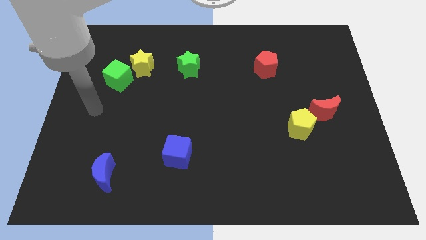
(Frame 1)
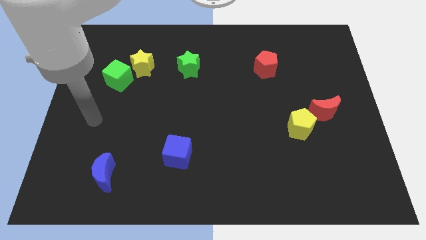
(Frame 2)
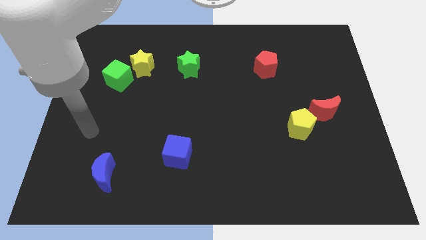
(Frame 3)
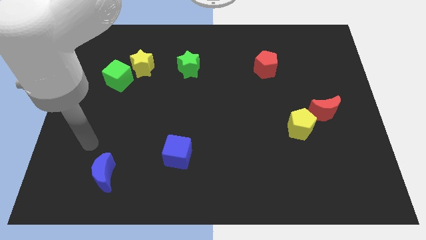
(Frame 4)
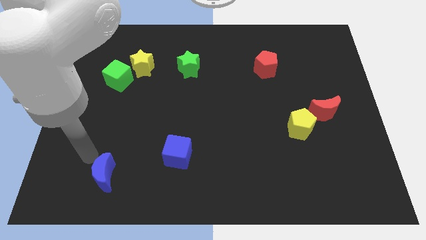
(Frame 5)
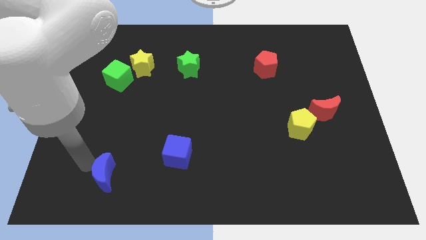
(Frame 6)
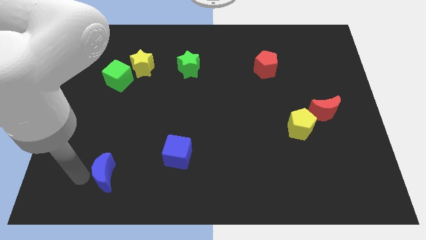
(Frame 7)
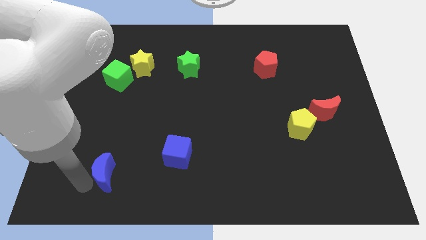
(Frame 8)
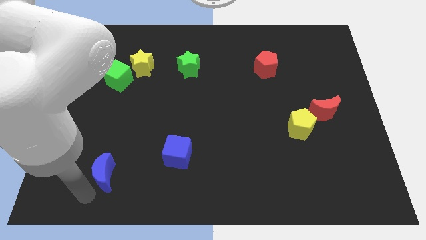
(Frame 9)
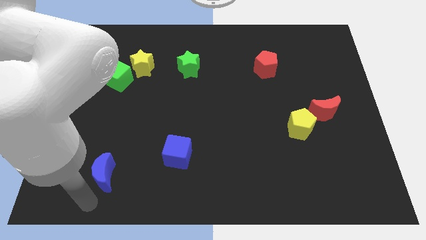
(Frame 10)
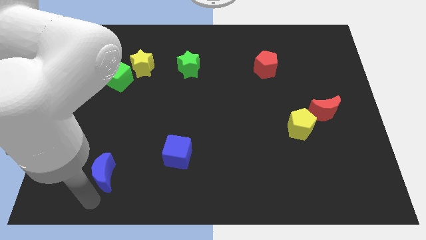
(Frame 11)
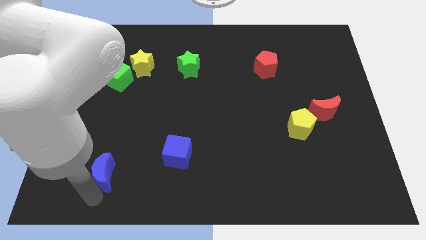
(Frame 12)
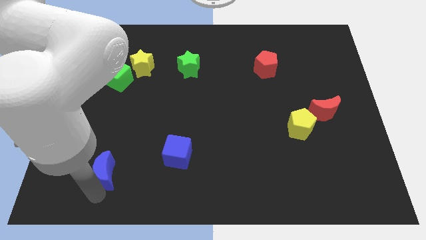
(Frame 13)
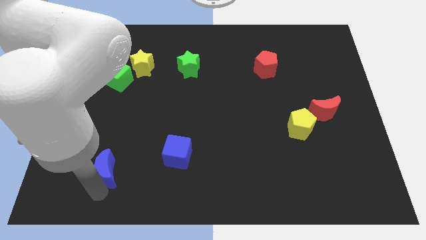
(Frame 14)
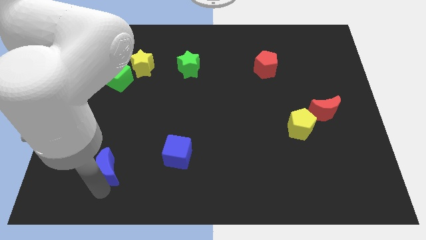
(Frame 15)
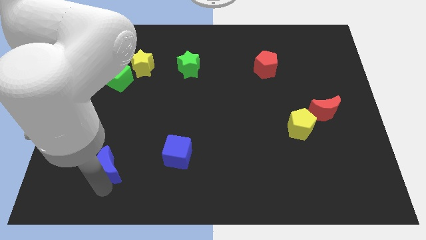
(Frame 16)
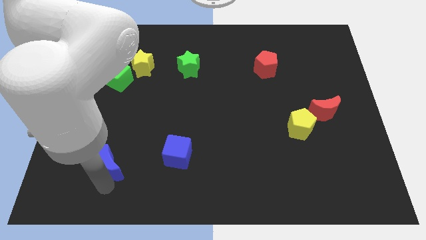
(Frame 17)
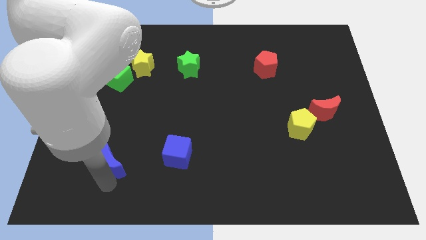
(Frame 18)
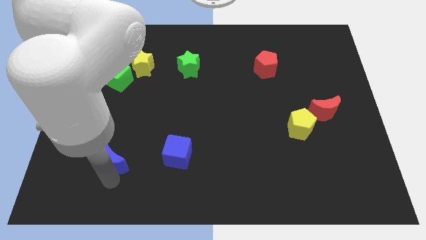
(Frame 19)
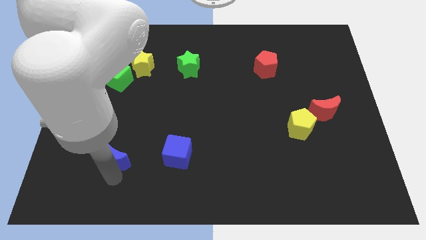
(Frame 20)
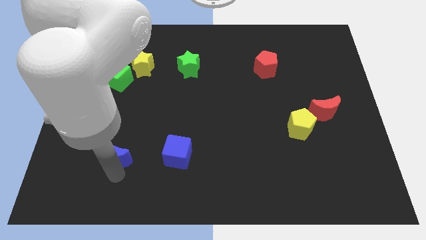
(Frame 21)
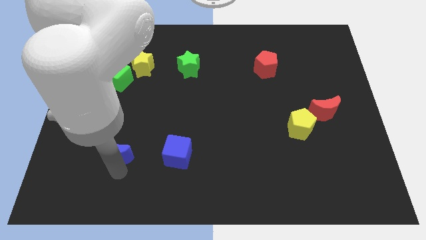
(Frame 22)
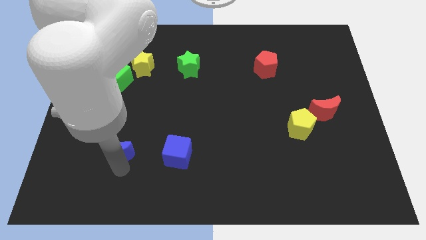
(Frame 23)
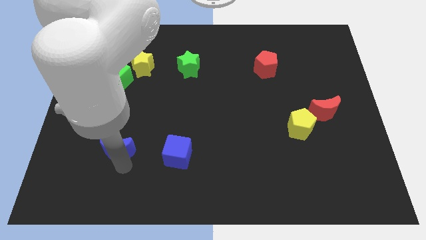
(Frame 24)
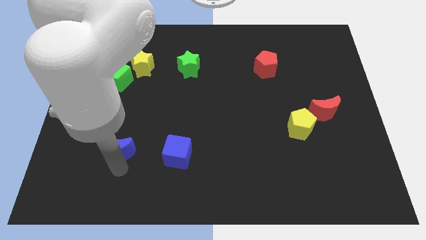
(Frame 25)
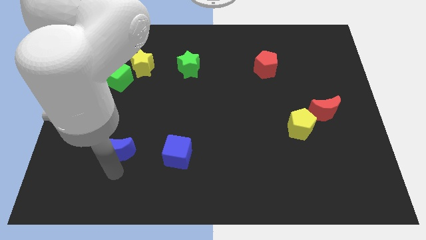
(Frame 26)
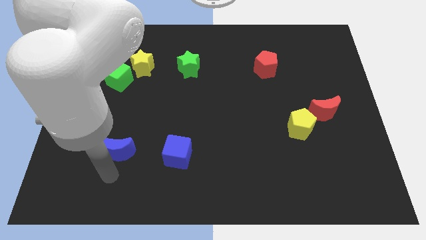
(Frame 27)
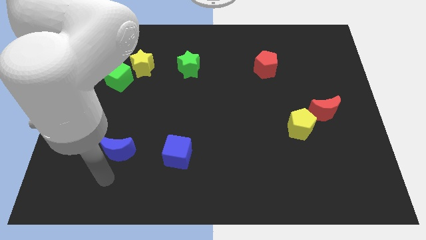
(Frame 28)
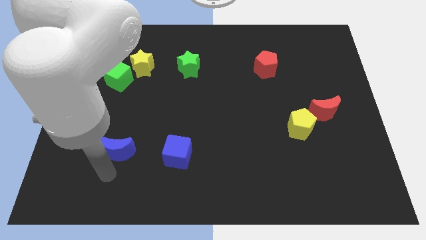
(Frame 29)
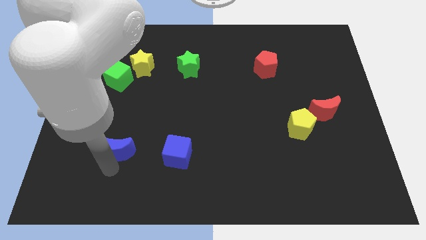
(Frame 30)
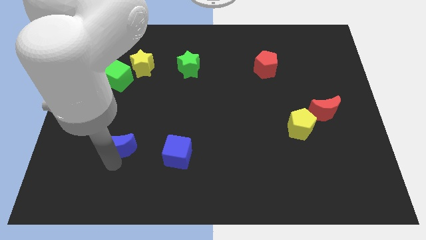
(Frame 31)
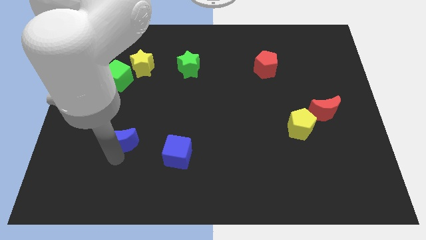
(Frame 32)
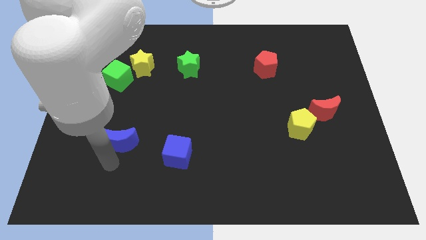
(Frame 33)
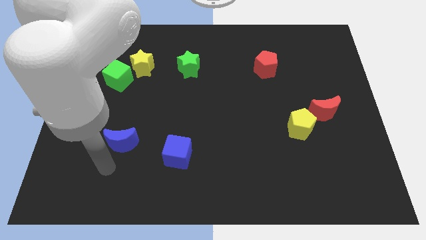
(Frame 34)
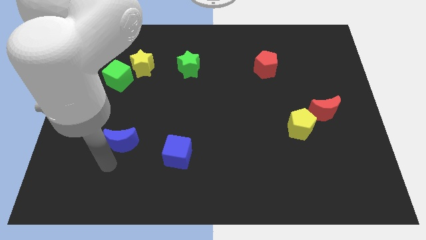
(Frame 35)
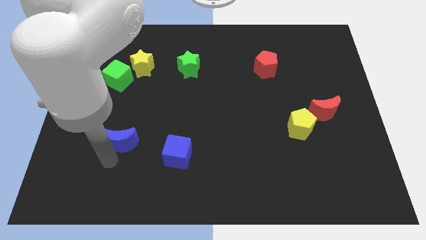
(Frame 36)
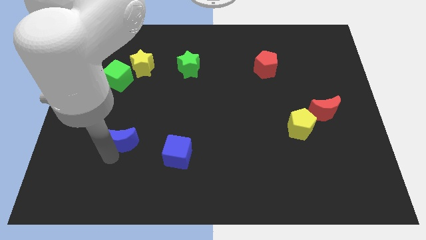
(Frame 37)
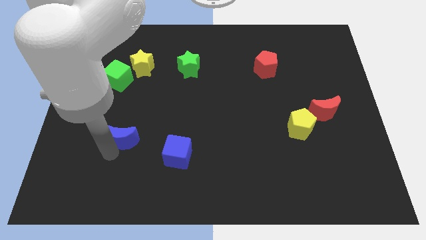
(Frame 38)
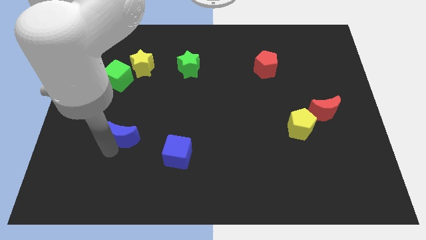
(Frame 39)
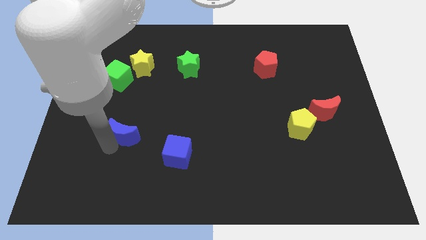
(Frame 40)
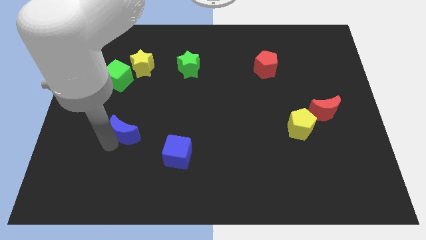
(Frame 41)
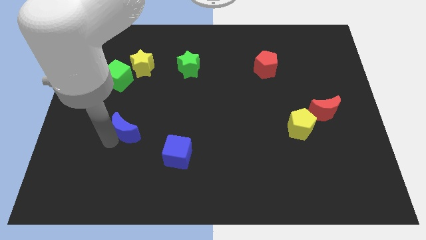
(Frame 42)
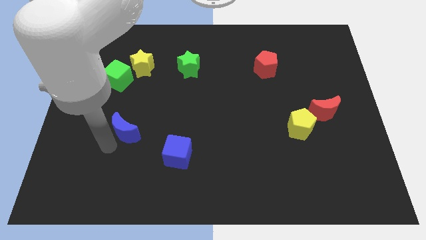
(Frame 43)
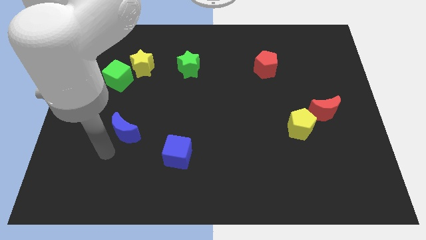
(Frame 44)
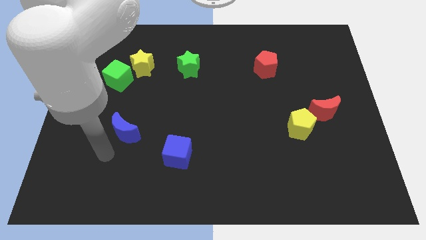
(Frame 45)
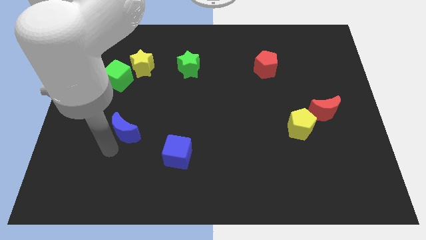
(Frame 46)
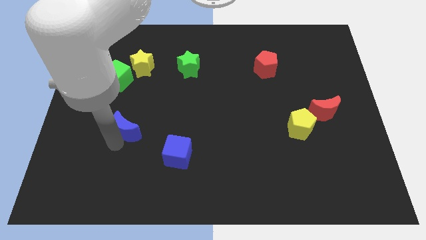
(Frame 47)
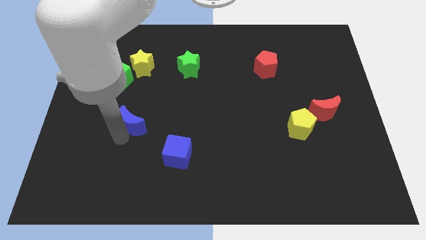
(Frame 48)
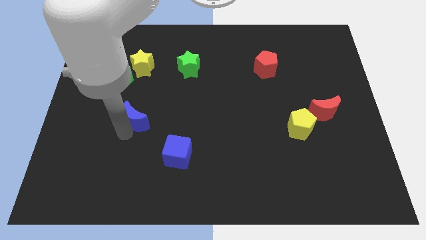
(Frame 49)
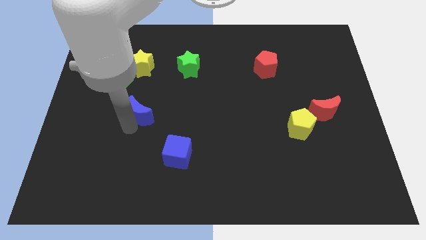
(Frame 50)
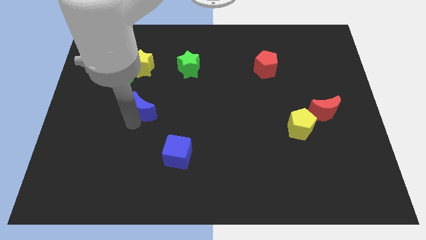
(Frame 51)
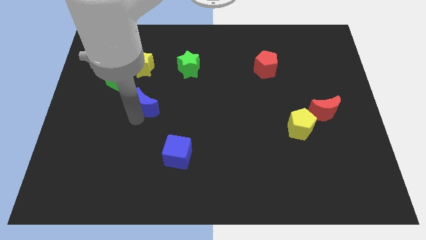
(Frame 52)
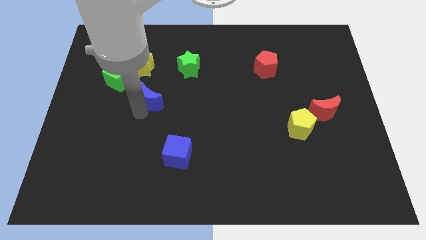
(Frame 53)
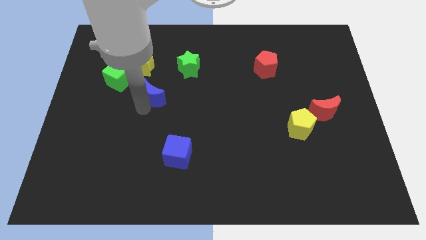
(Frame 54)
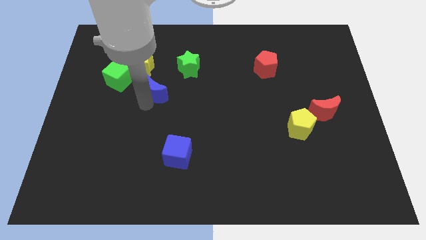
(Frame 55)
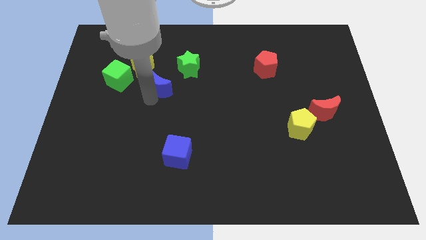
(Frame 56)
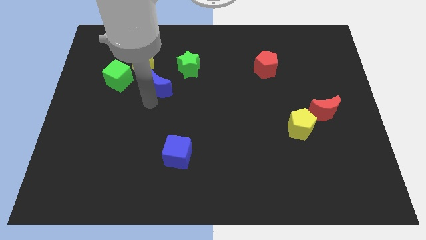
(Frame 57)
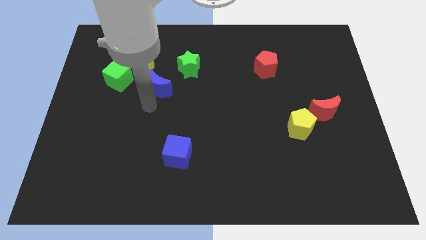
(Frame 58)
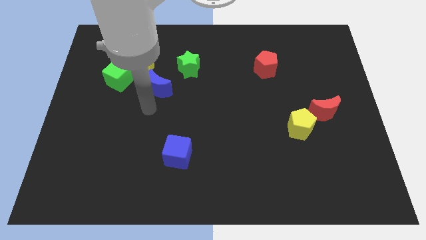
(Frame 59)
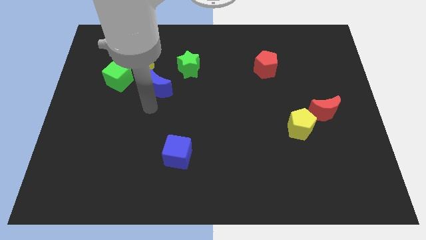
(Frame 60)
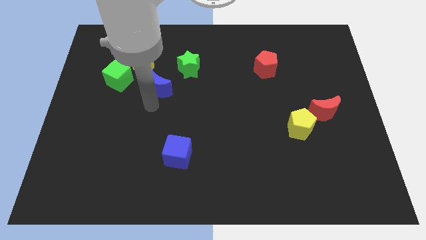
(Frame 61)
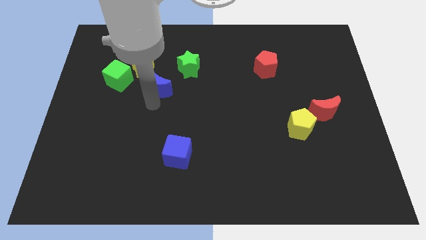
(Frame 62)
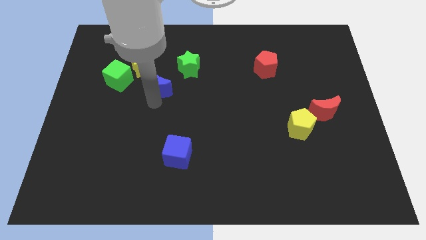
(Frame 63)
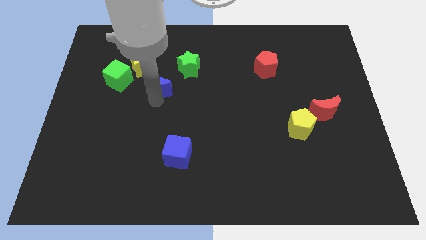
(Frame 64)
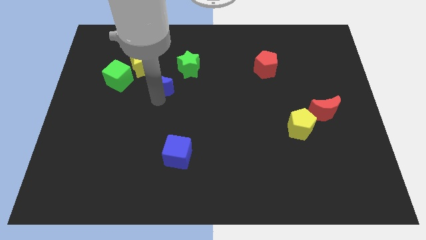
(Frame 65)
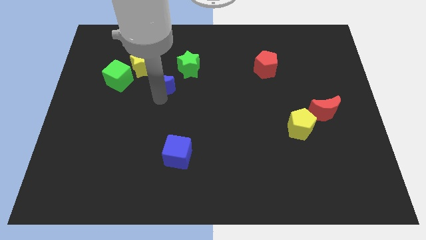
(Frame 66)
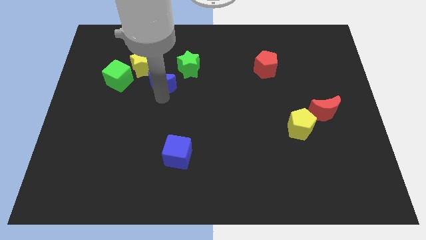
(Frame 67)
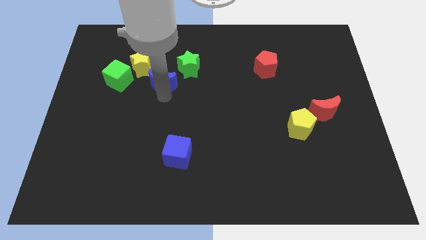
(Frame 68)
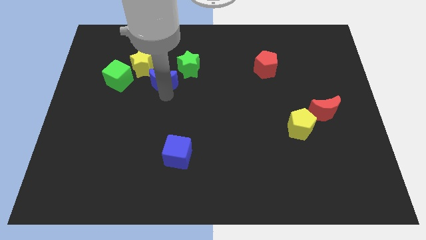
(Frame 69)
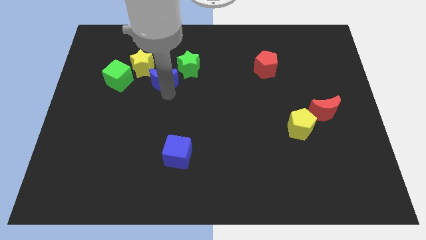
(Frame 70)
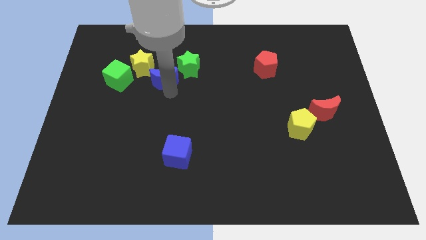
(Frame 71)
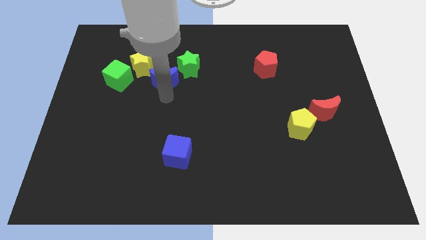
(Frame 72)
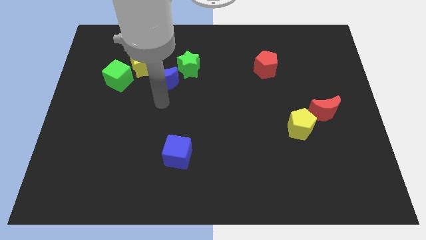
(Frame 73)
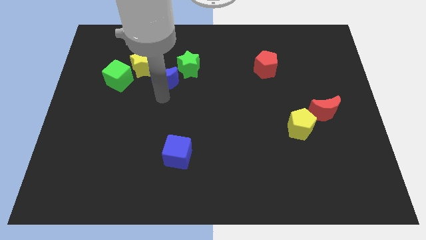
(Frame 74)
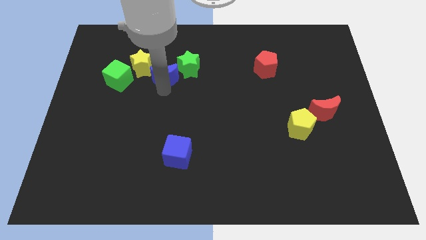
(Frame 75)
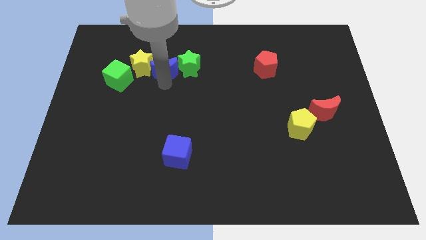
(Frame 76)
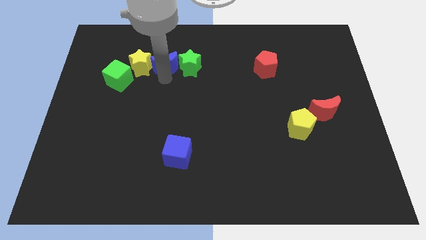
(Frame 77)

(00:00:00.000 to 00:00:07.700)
move the blue moon to the top left side of the green star
